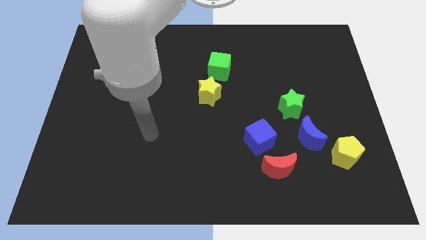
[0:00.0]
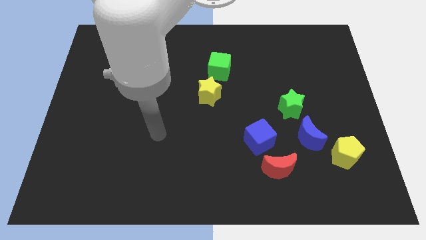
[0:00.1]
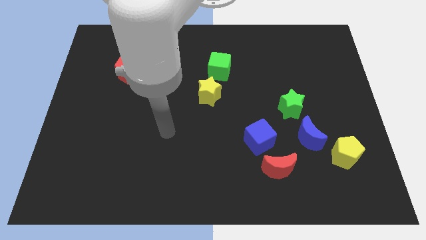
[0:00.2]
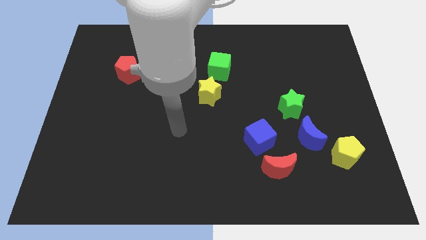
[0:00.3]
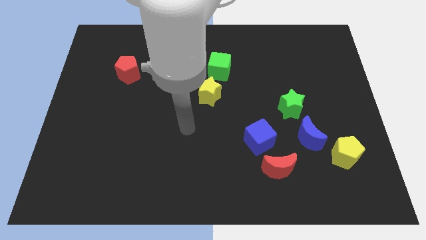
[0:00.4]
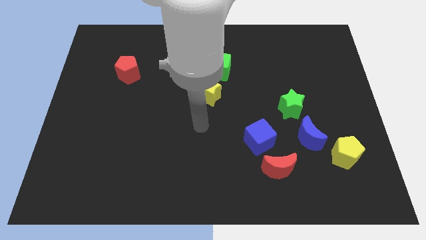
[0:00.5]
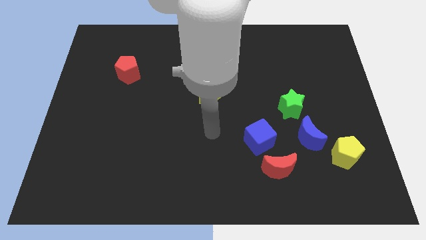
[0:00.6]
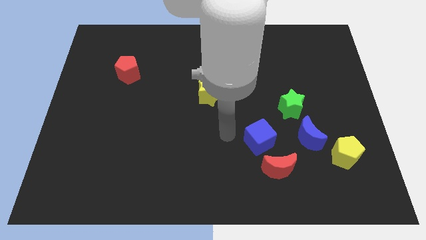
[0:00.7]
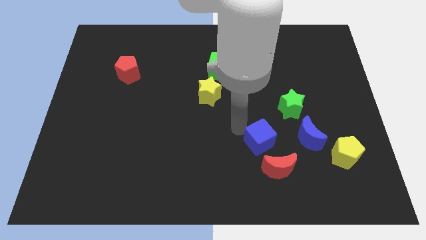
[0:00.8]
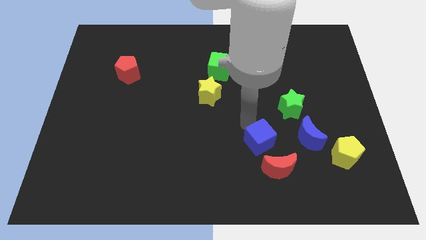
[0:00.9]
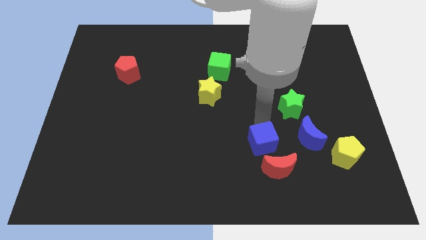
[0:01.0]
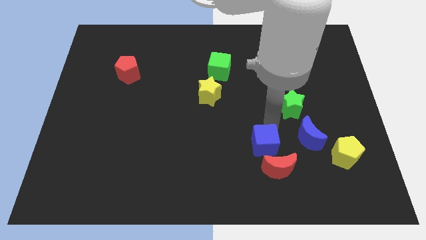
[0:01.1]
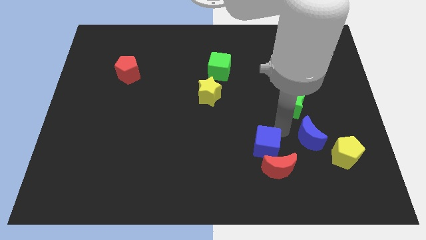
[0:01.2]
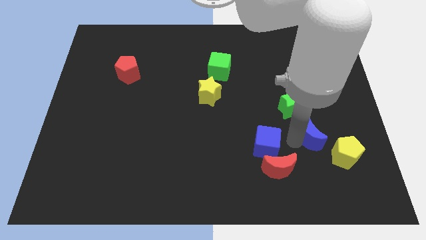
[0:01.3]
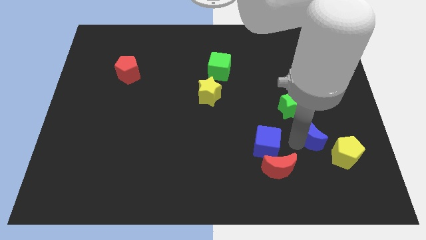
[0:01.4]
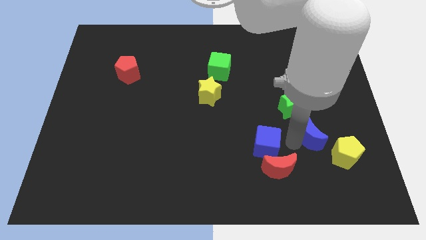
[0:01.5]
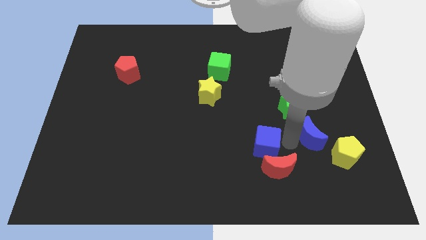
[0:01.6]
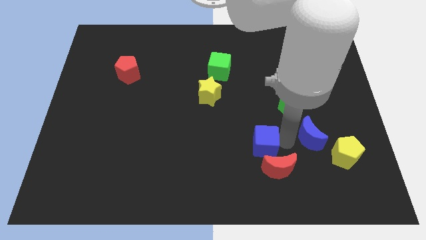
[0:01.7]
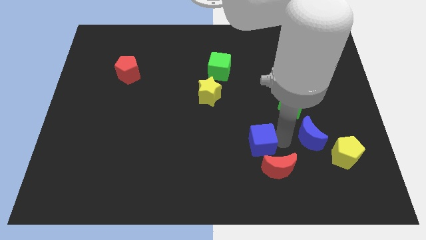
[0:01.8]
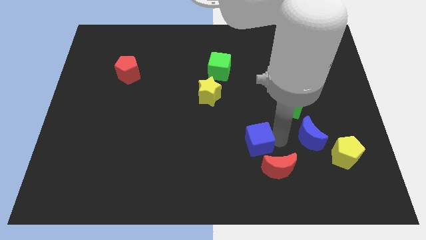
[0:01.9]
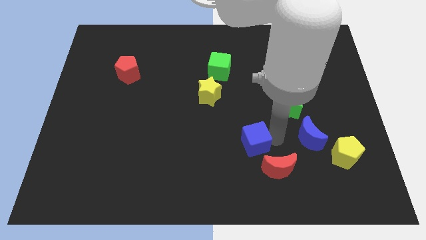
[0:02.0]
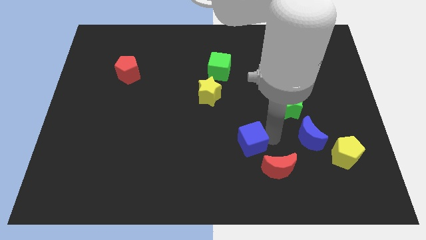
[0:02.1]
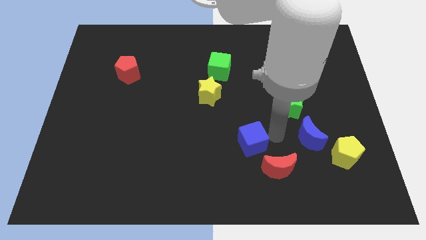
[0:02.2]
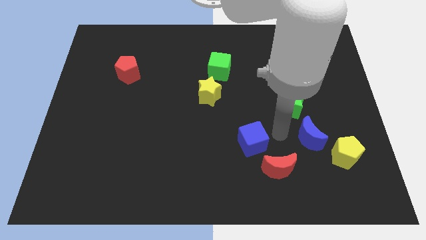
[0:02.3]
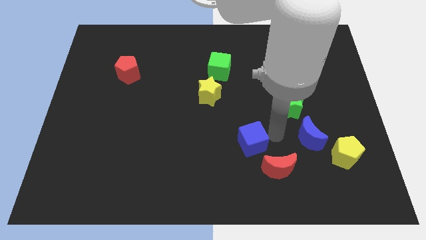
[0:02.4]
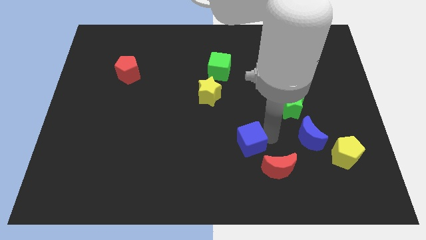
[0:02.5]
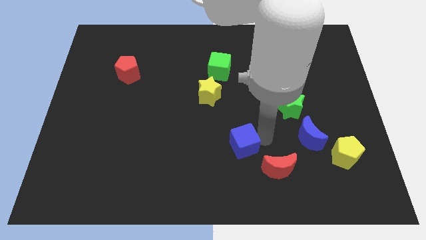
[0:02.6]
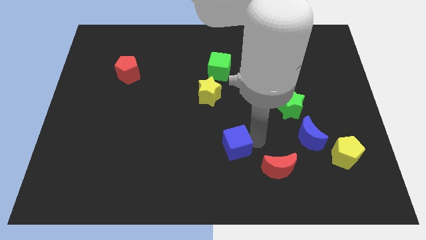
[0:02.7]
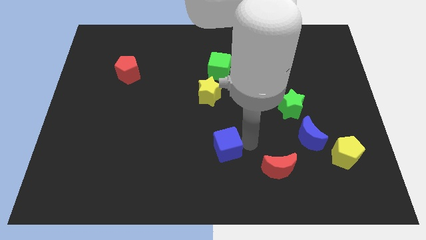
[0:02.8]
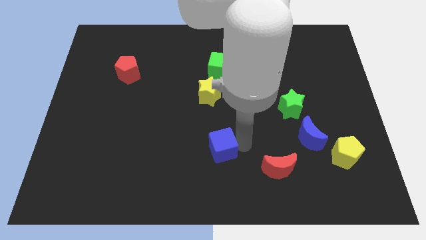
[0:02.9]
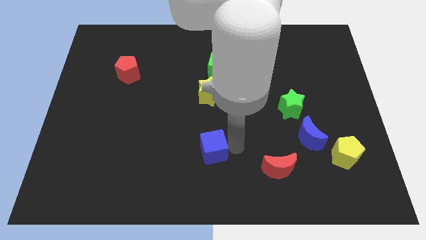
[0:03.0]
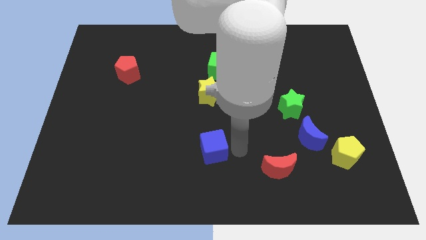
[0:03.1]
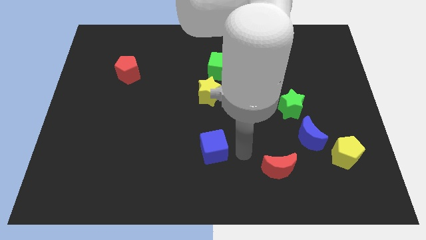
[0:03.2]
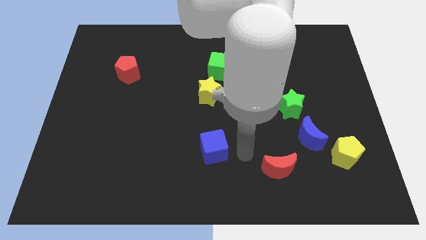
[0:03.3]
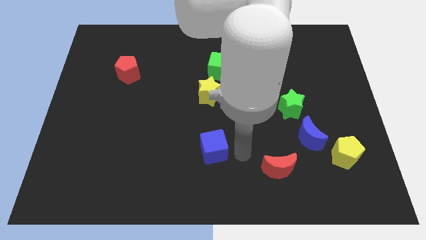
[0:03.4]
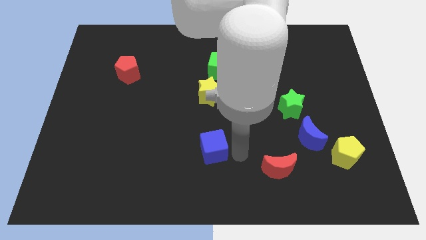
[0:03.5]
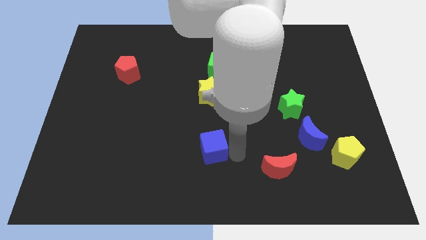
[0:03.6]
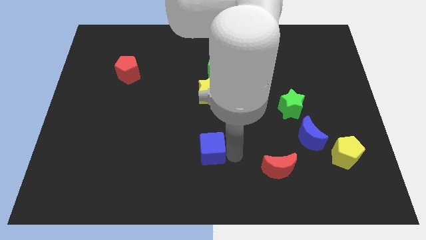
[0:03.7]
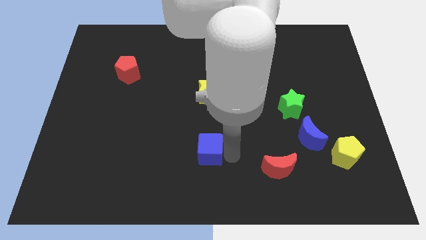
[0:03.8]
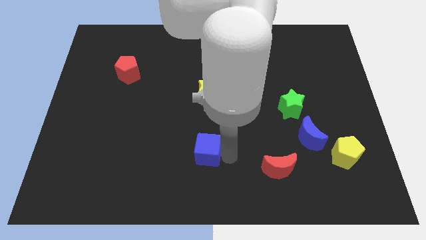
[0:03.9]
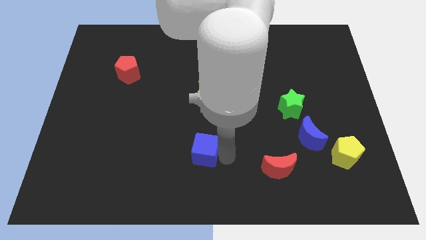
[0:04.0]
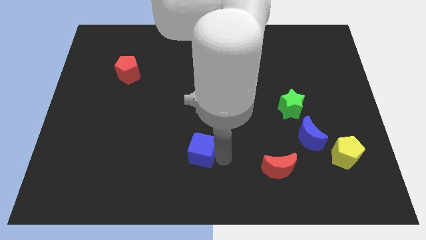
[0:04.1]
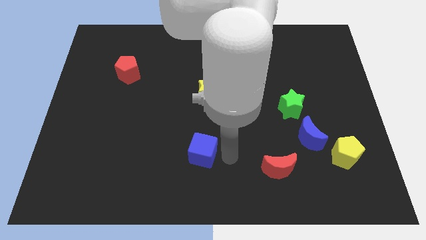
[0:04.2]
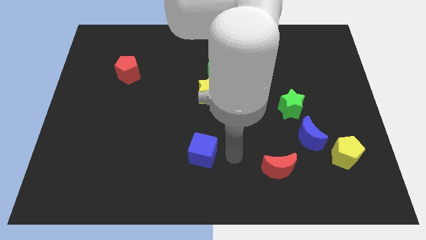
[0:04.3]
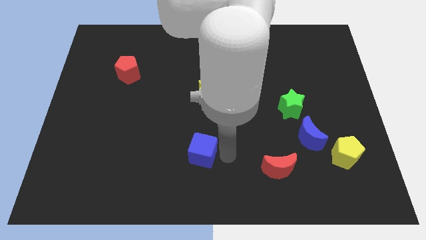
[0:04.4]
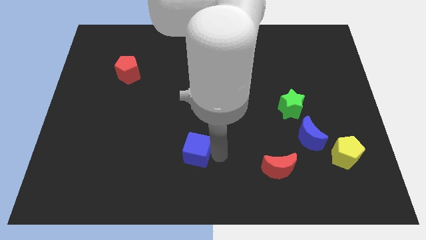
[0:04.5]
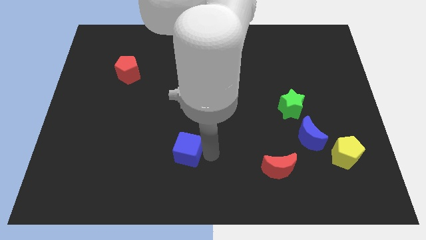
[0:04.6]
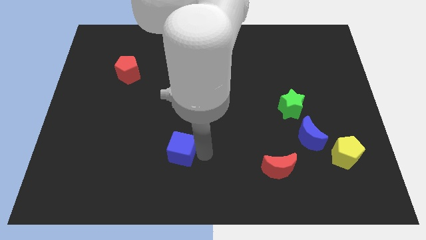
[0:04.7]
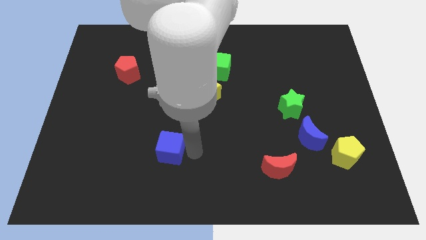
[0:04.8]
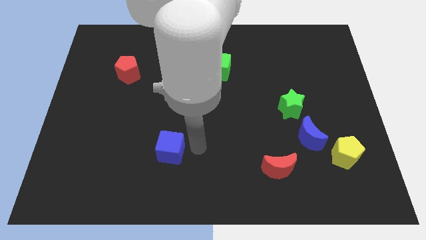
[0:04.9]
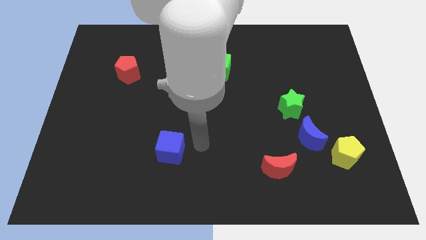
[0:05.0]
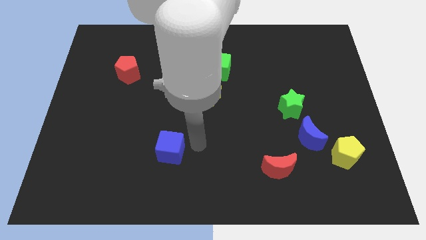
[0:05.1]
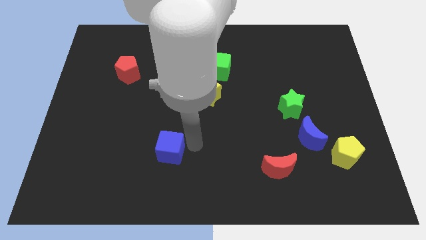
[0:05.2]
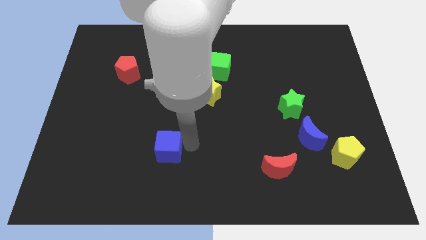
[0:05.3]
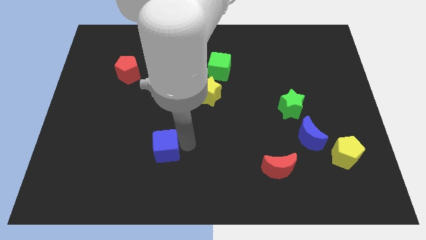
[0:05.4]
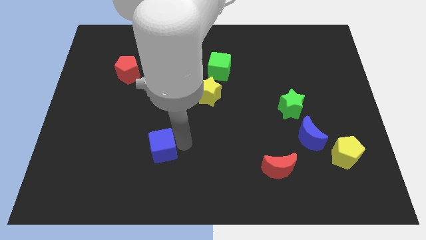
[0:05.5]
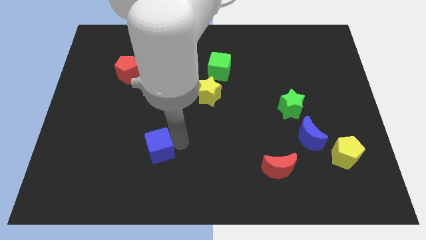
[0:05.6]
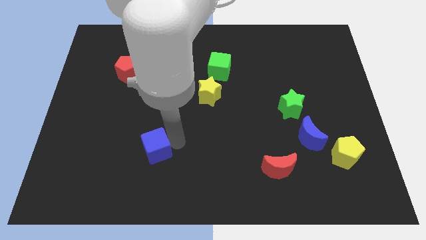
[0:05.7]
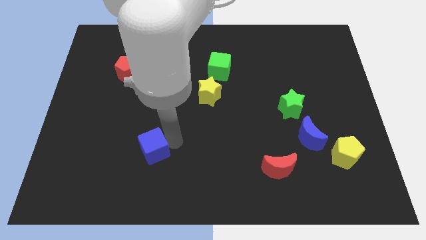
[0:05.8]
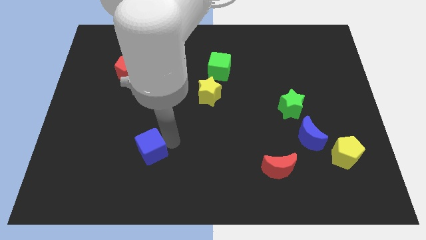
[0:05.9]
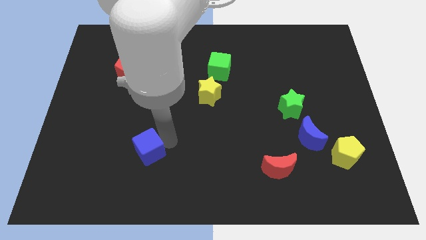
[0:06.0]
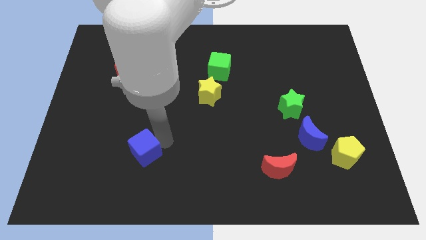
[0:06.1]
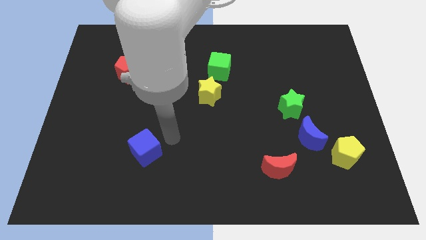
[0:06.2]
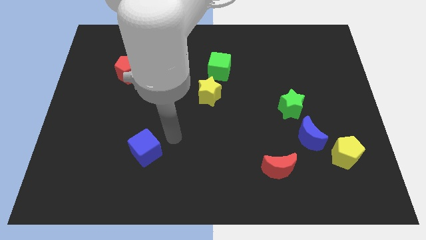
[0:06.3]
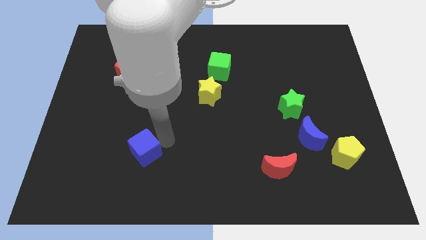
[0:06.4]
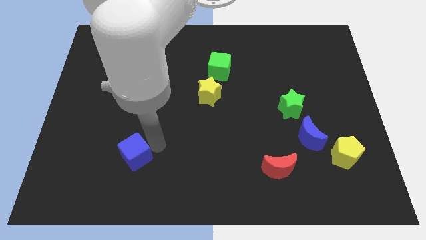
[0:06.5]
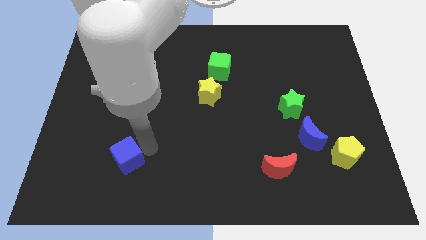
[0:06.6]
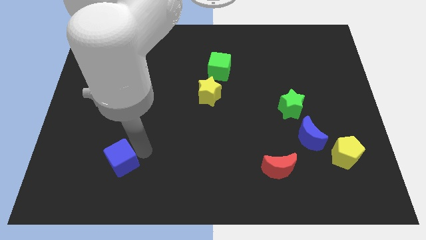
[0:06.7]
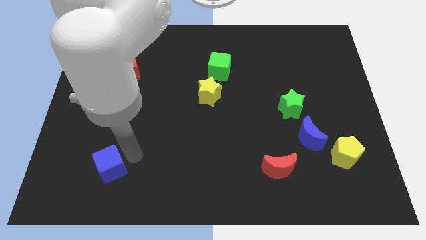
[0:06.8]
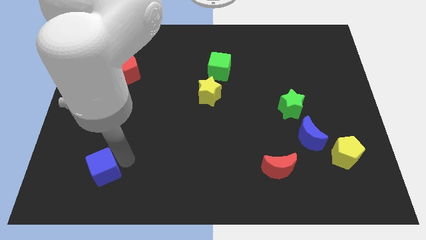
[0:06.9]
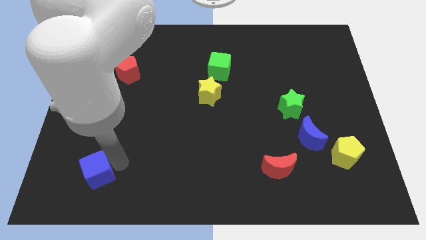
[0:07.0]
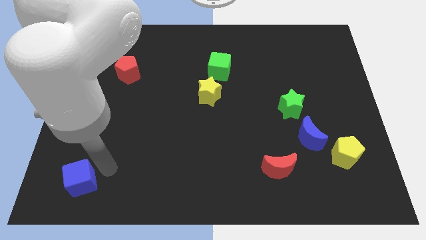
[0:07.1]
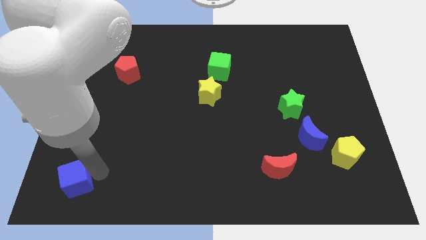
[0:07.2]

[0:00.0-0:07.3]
put the blue cube to the bottom left of the board
